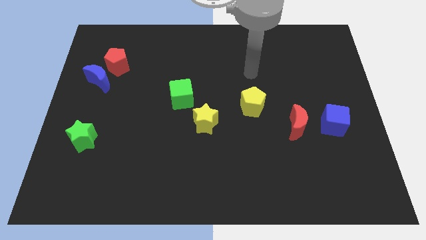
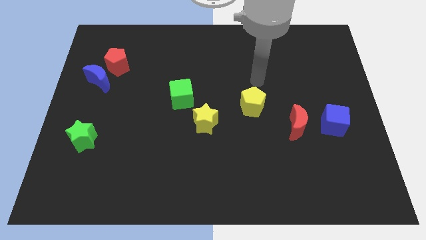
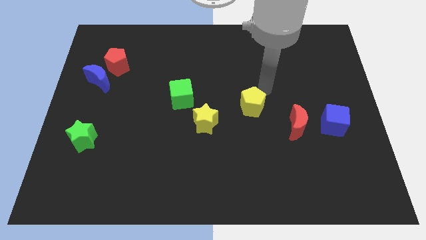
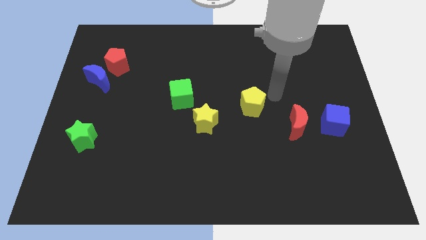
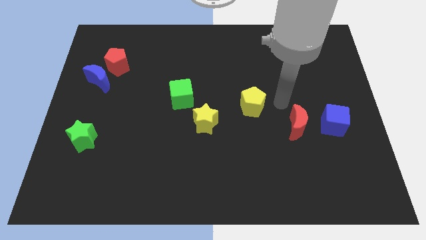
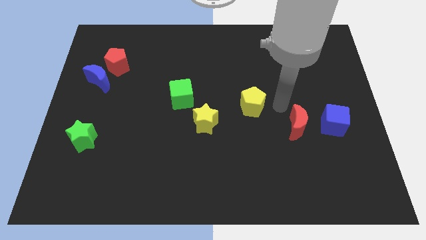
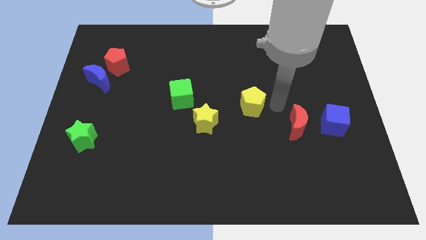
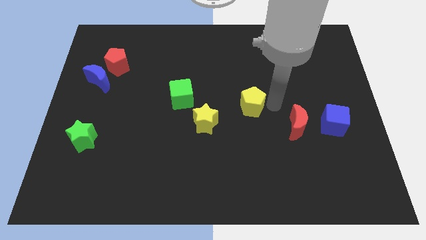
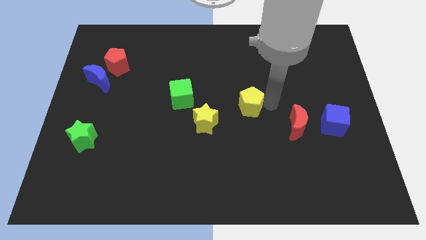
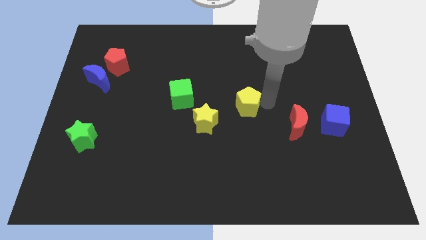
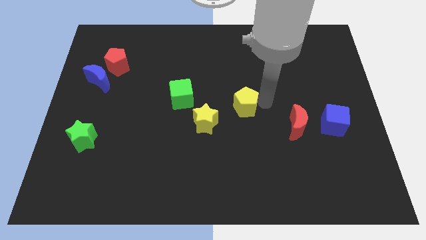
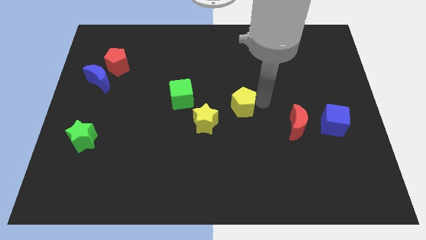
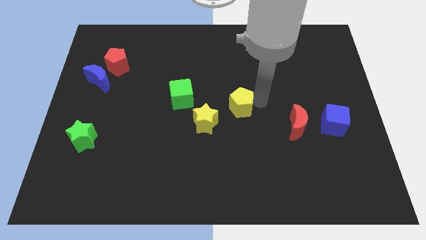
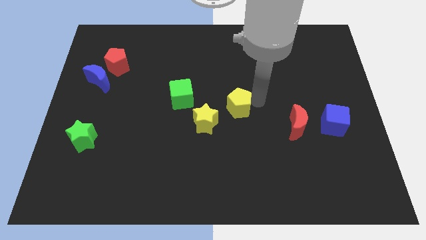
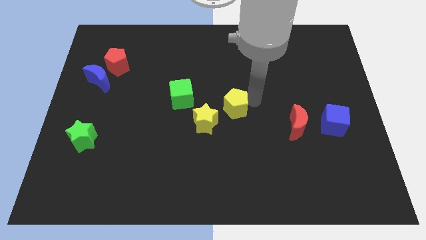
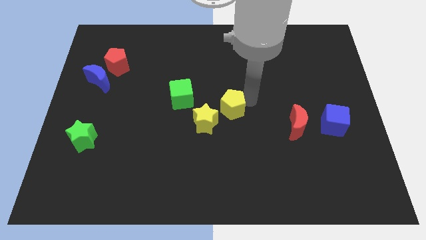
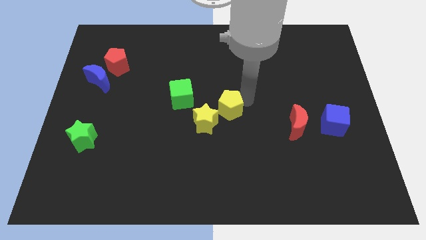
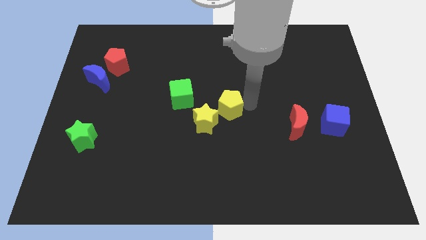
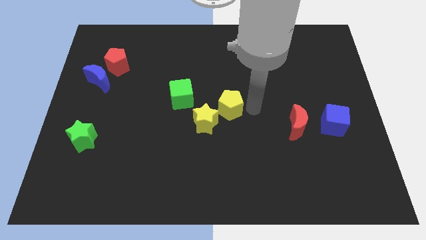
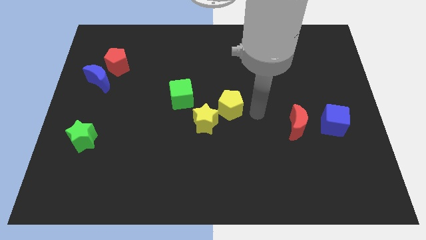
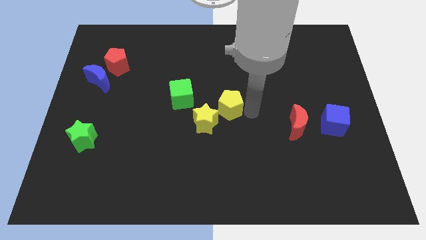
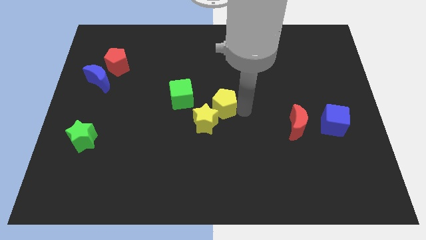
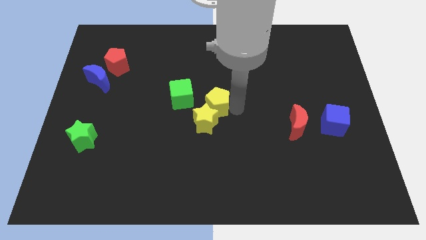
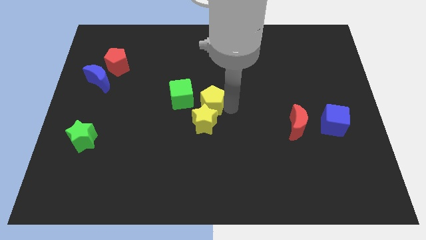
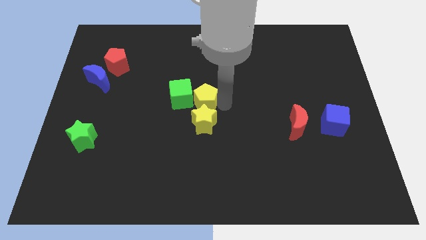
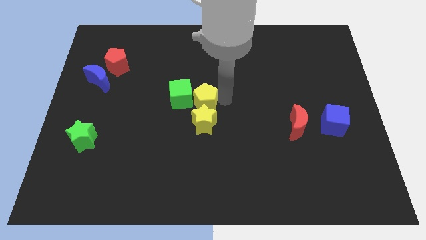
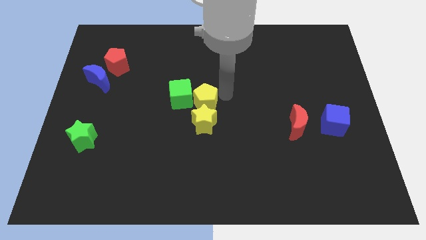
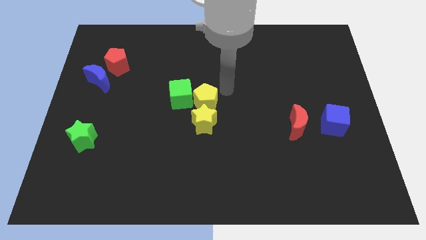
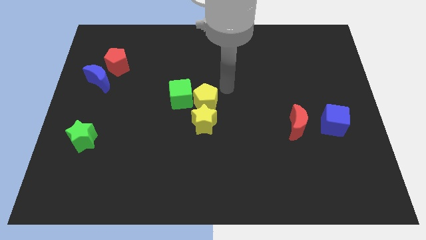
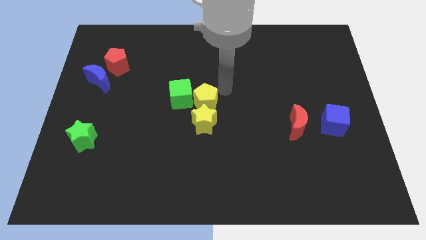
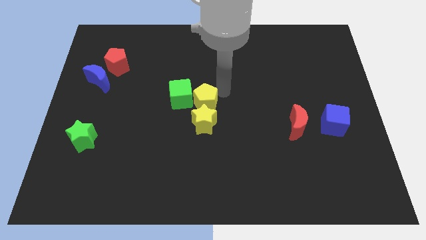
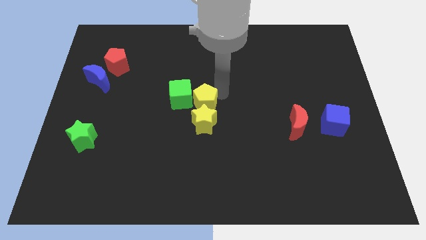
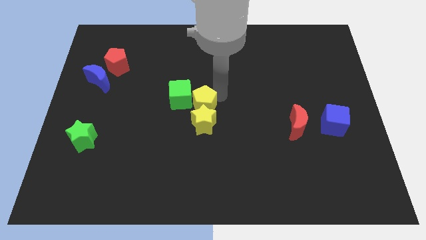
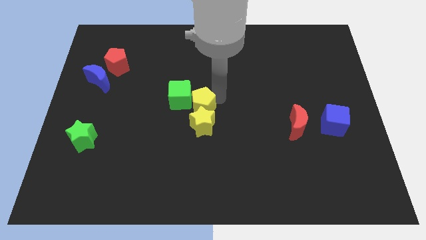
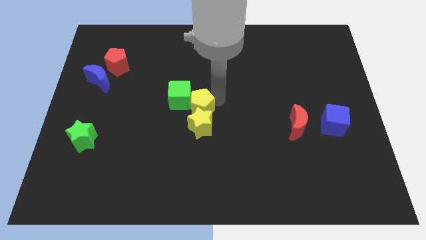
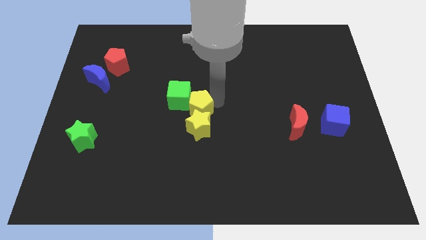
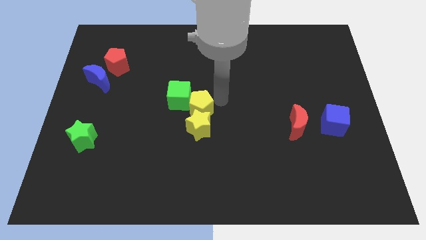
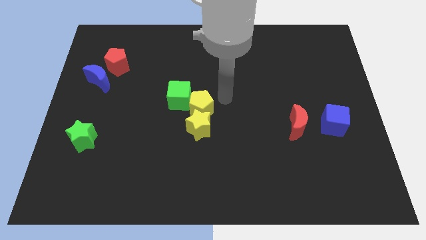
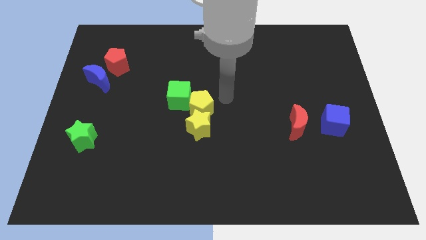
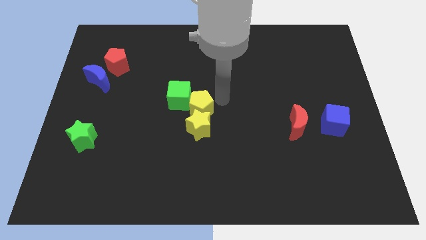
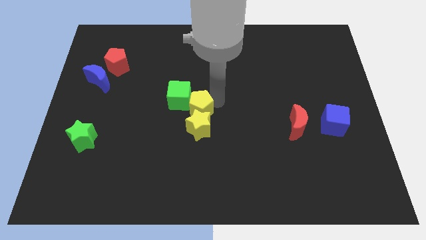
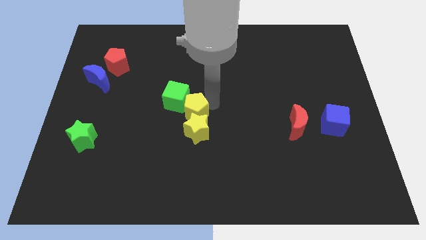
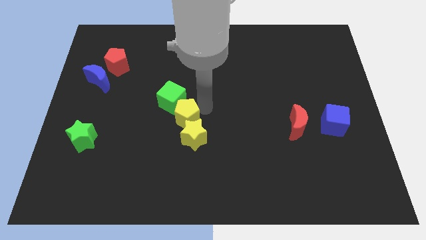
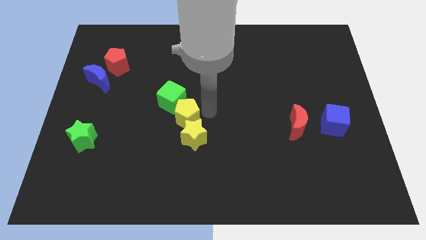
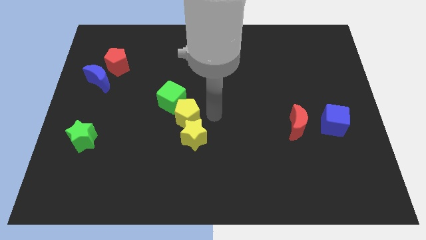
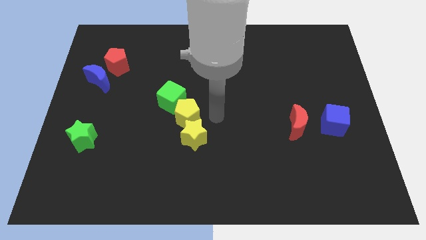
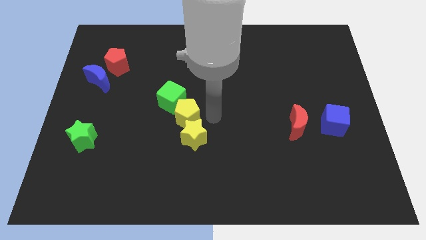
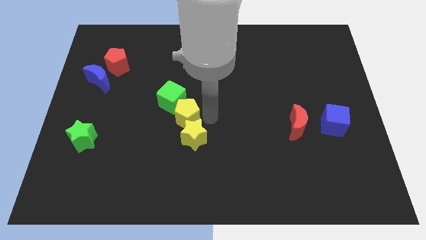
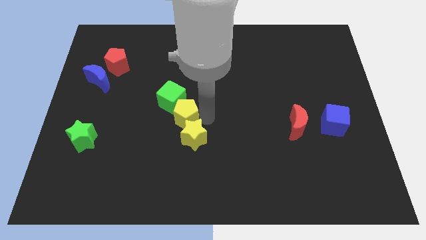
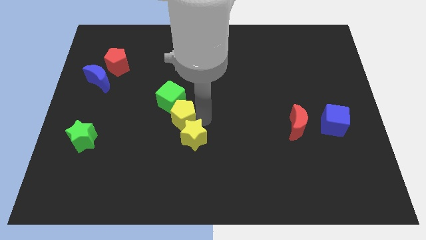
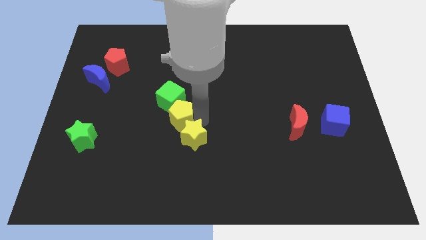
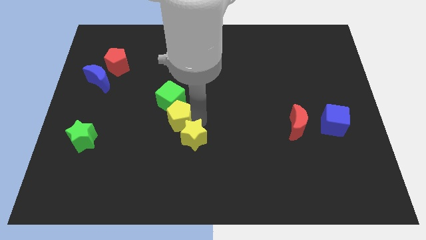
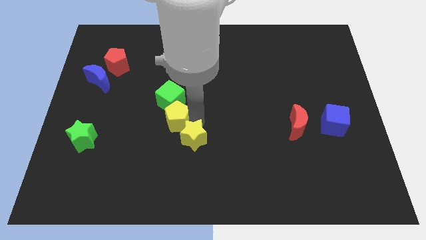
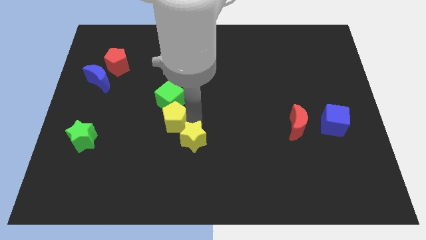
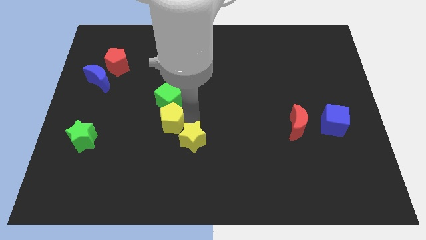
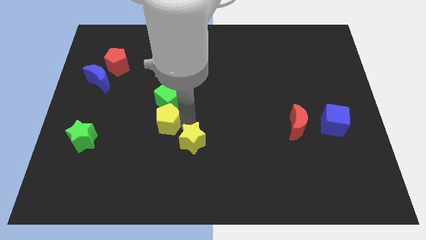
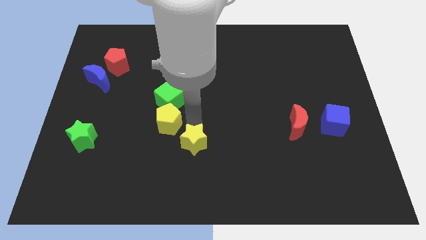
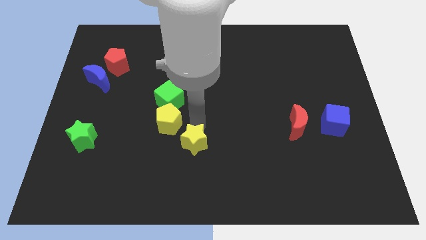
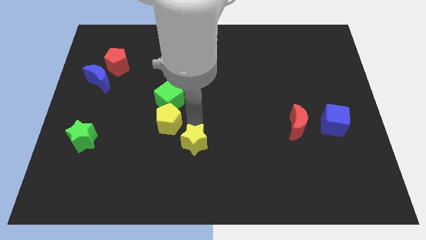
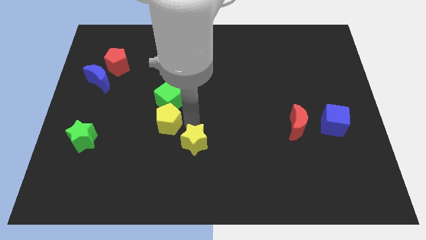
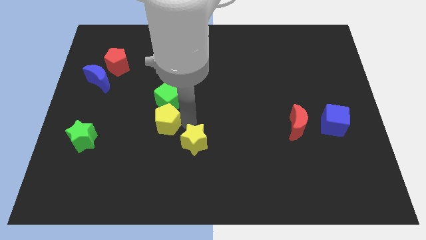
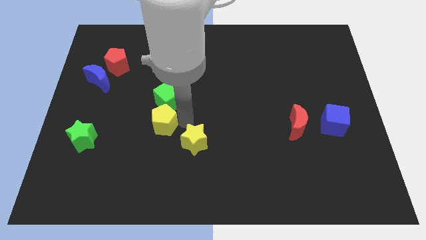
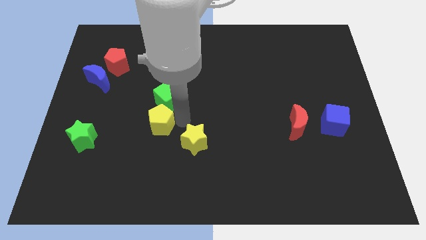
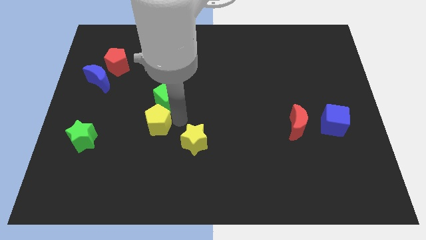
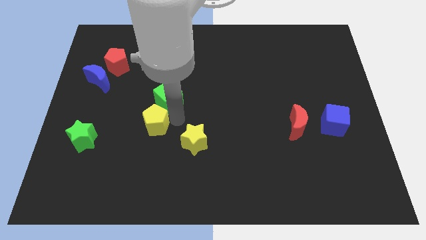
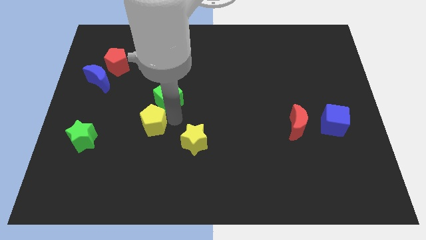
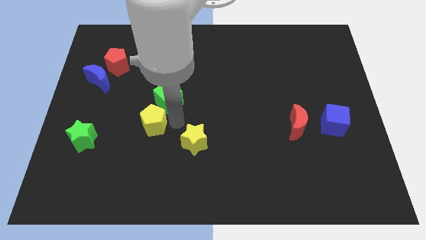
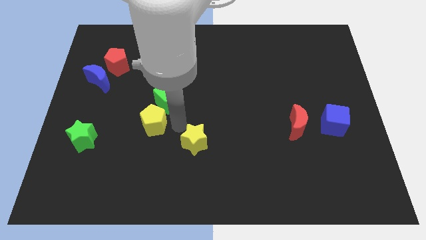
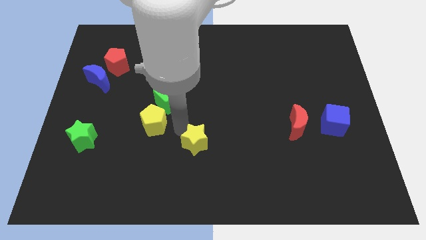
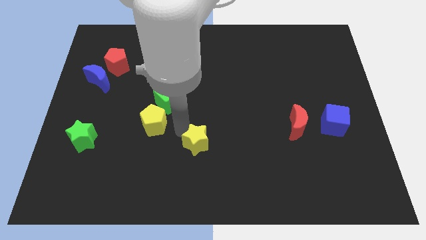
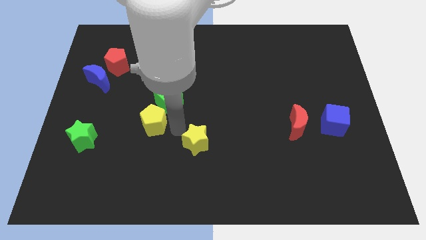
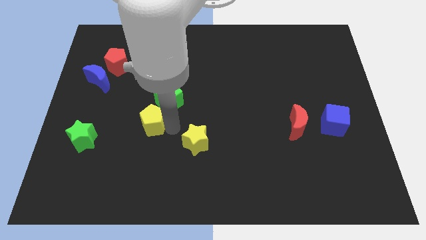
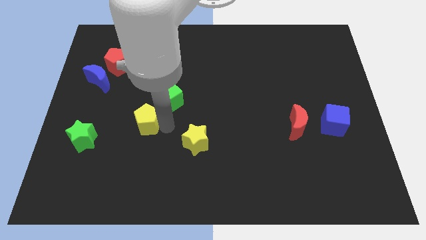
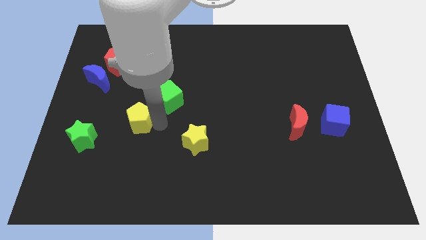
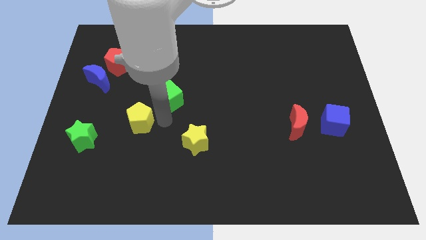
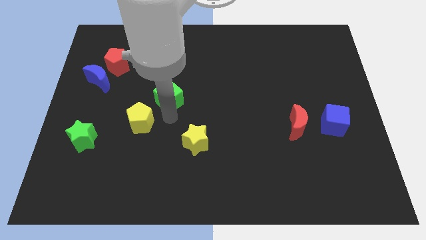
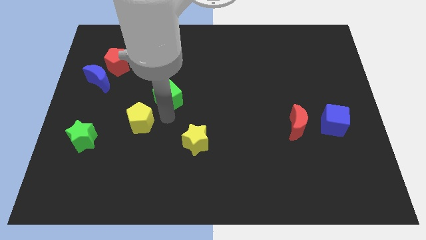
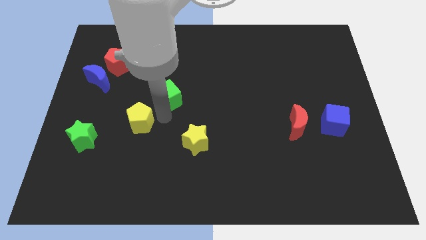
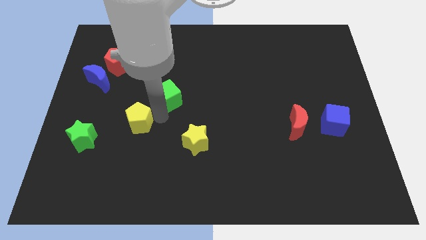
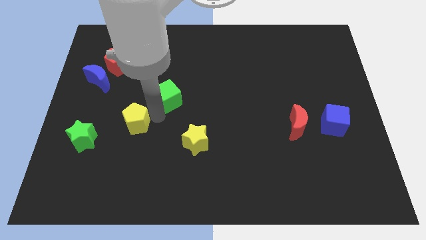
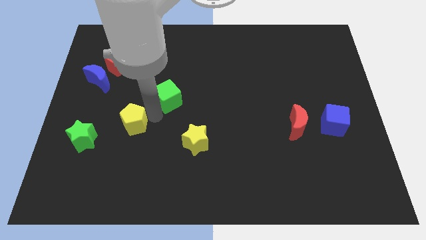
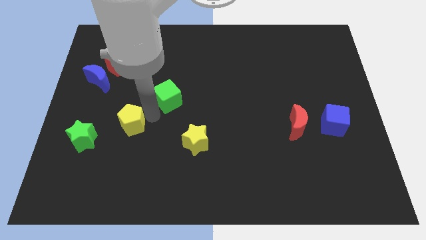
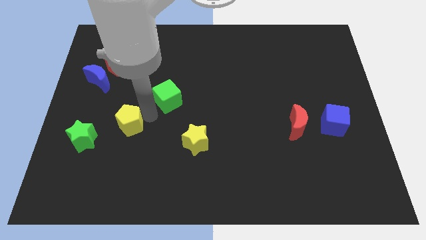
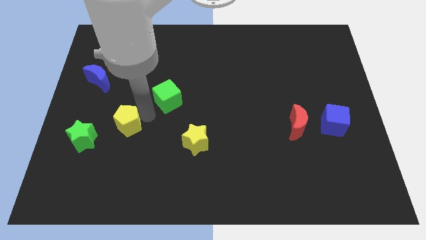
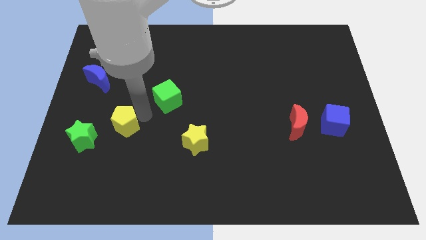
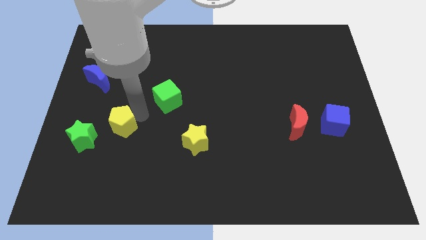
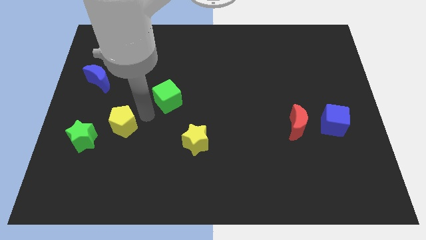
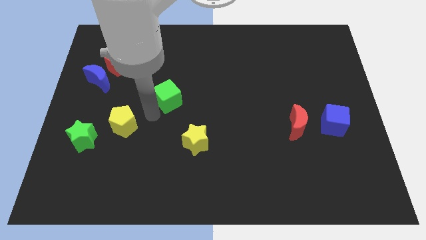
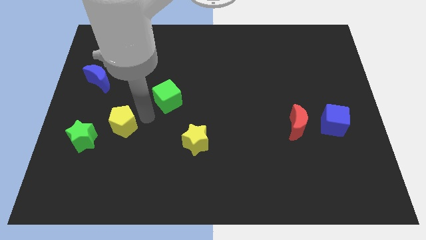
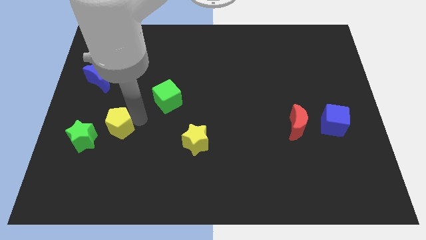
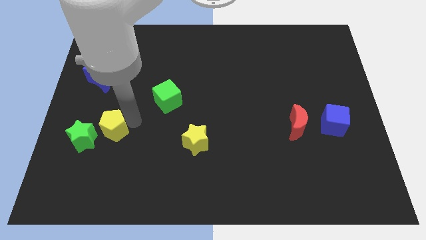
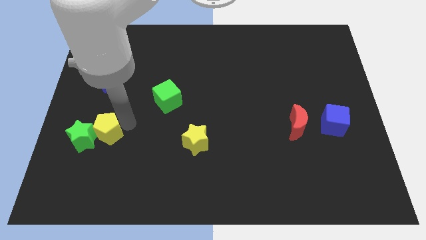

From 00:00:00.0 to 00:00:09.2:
move the yellow pentagon next to the green star
